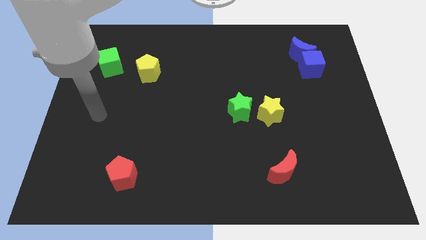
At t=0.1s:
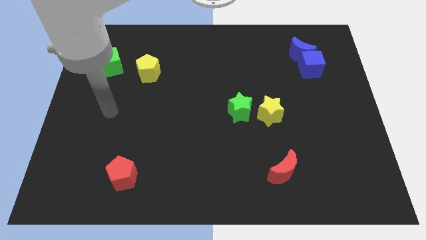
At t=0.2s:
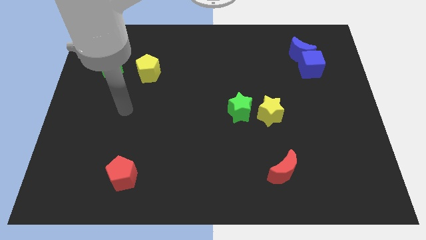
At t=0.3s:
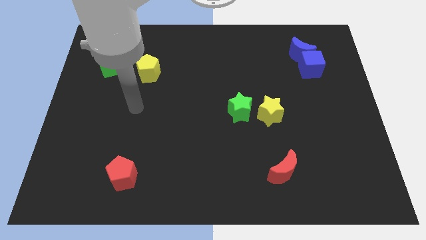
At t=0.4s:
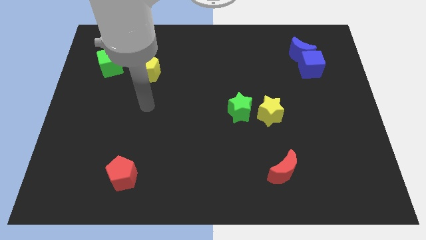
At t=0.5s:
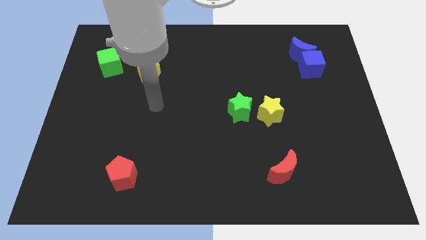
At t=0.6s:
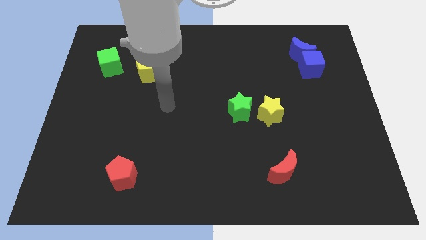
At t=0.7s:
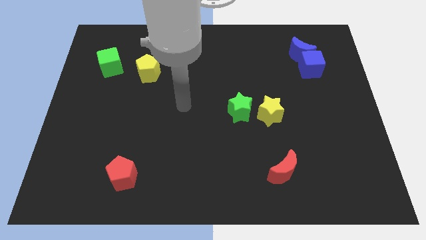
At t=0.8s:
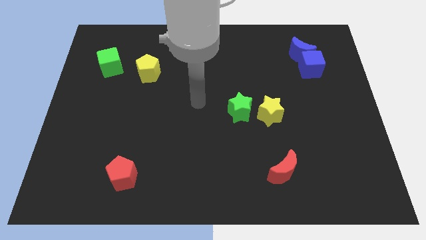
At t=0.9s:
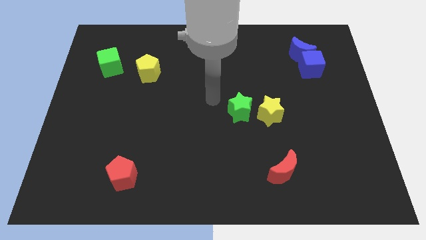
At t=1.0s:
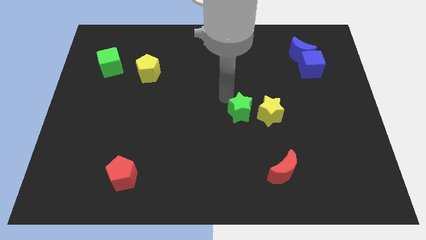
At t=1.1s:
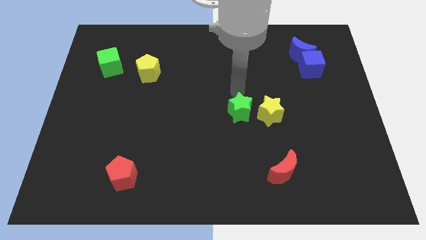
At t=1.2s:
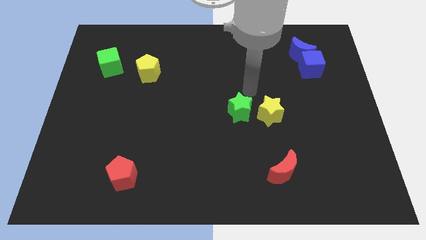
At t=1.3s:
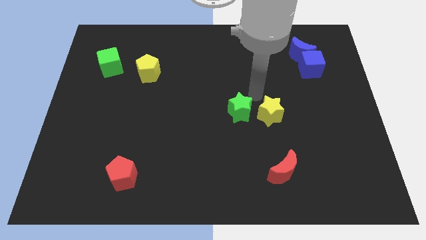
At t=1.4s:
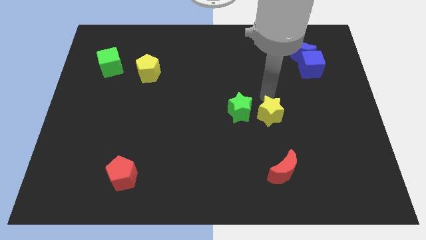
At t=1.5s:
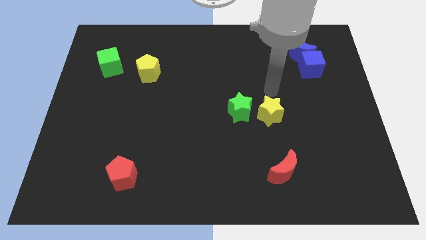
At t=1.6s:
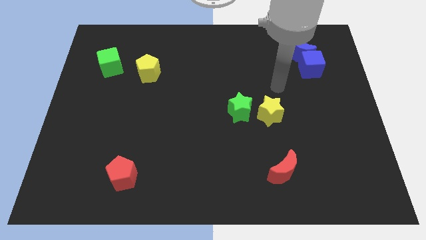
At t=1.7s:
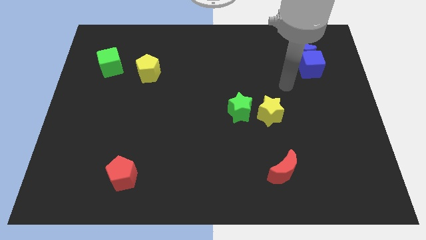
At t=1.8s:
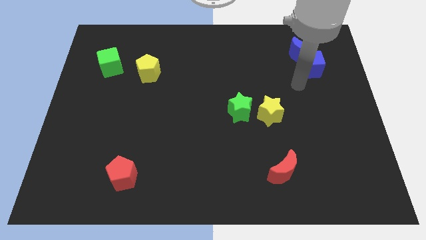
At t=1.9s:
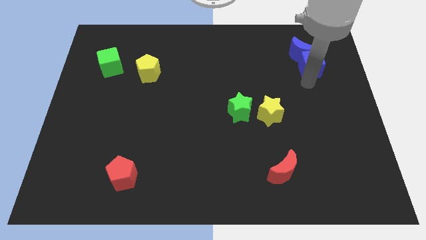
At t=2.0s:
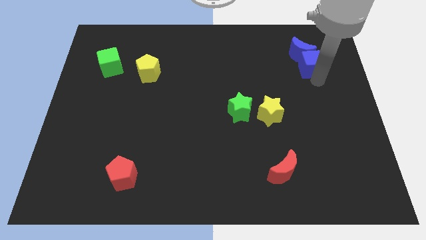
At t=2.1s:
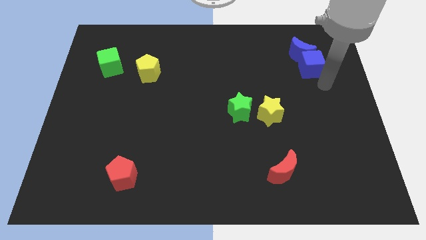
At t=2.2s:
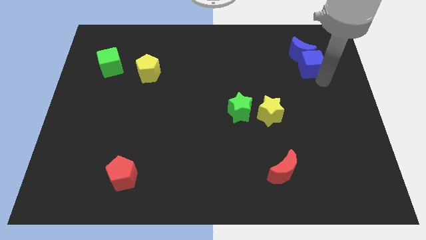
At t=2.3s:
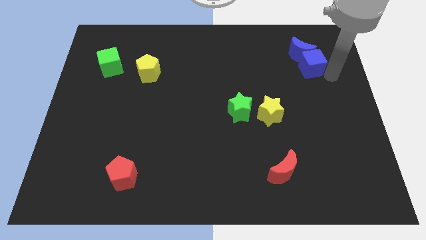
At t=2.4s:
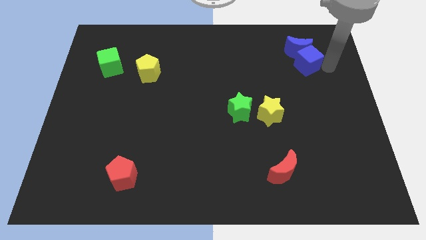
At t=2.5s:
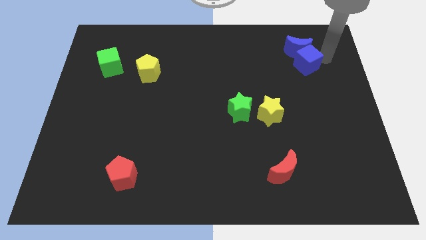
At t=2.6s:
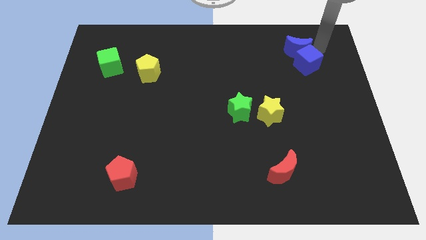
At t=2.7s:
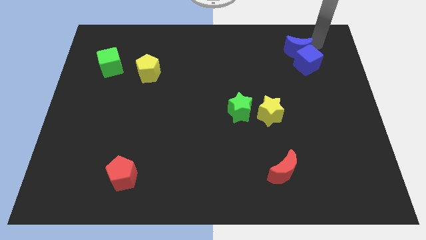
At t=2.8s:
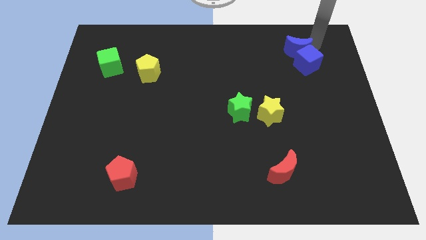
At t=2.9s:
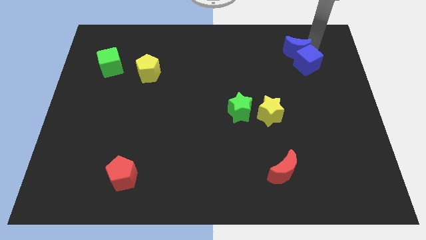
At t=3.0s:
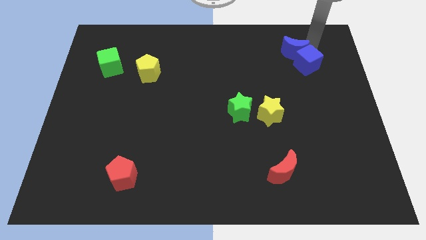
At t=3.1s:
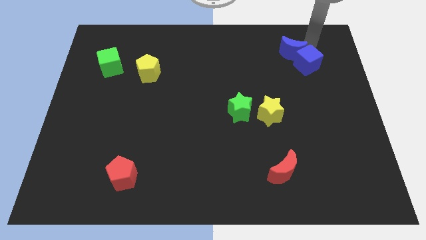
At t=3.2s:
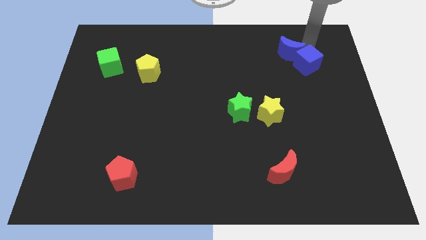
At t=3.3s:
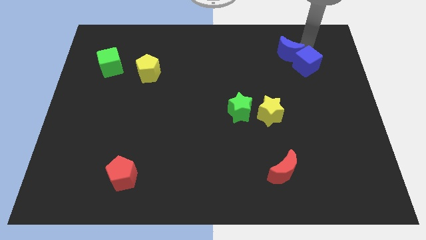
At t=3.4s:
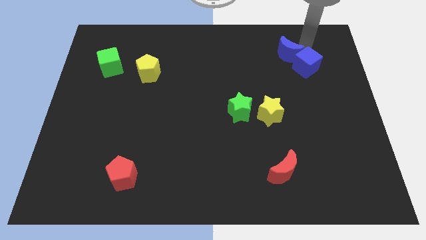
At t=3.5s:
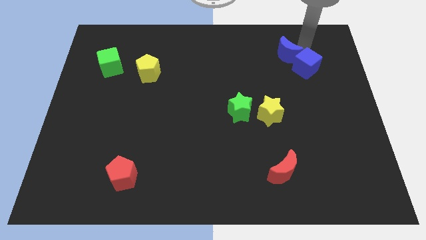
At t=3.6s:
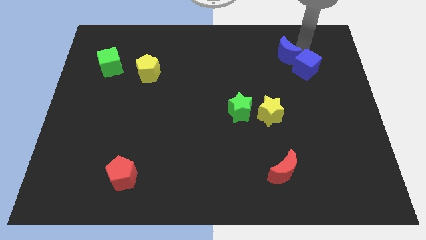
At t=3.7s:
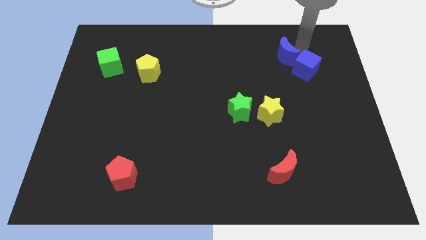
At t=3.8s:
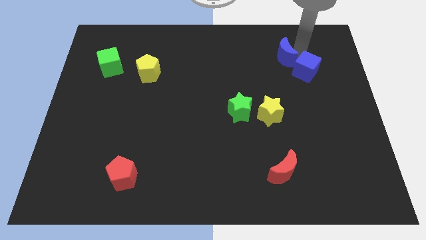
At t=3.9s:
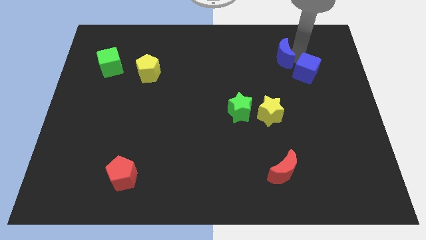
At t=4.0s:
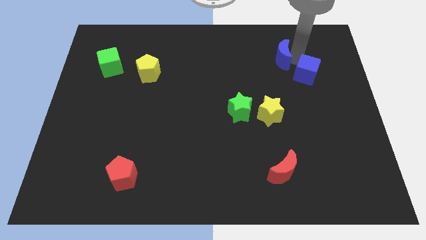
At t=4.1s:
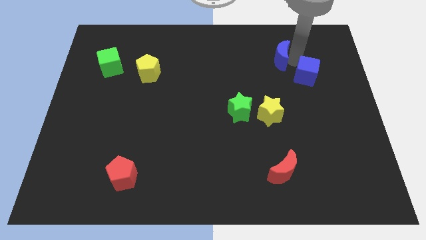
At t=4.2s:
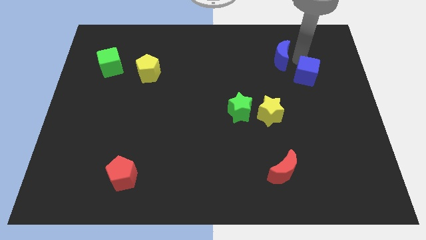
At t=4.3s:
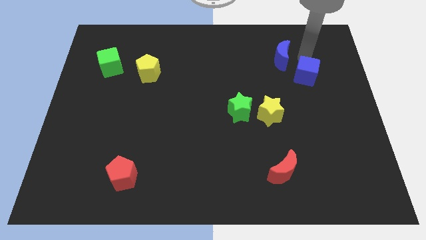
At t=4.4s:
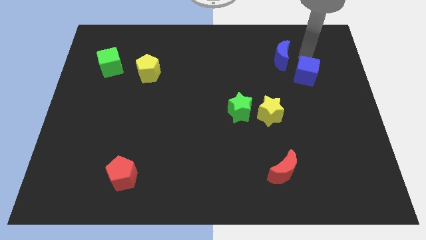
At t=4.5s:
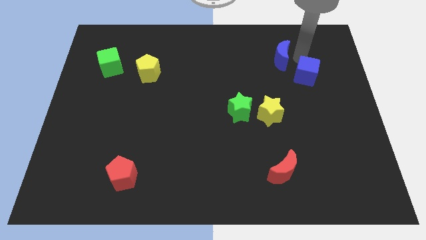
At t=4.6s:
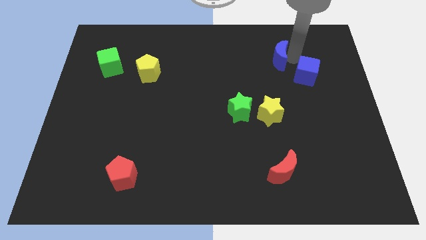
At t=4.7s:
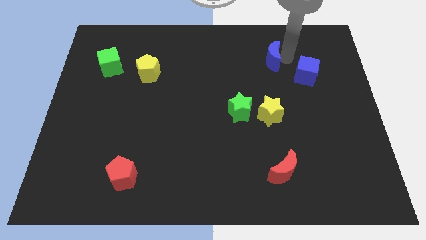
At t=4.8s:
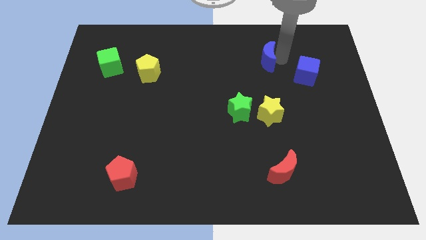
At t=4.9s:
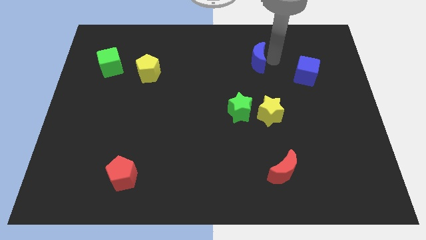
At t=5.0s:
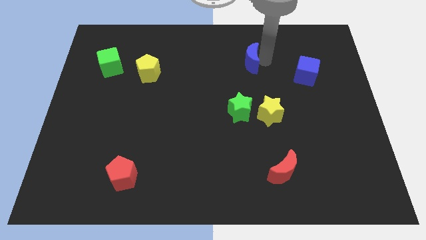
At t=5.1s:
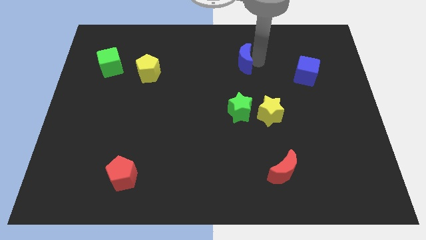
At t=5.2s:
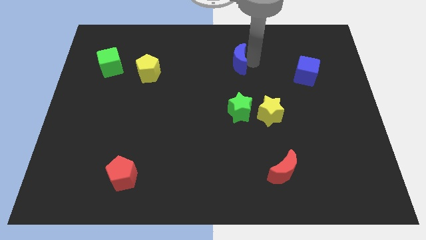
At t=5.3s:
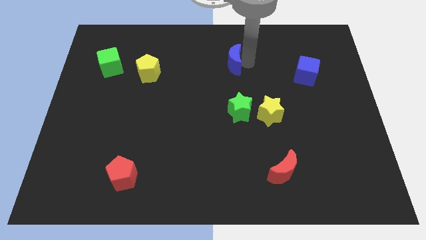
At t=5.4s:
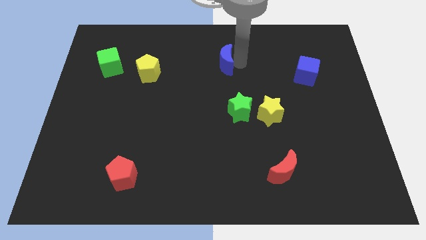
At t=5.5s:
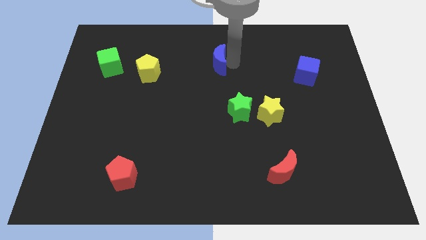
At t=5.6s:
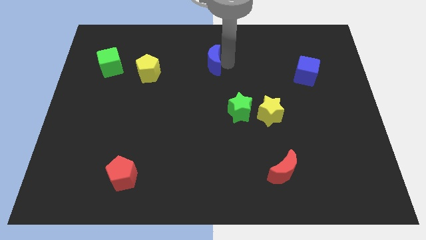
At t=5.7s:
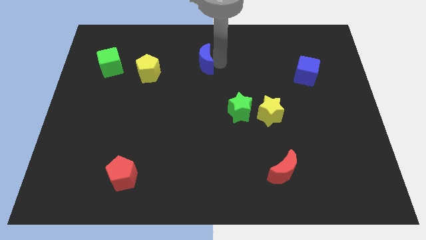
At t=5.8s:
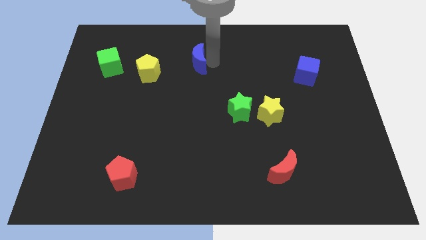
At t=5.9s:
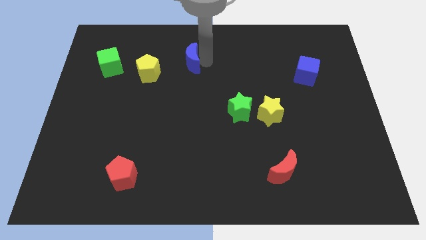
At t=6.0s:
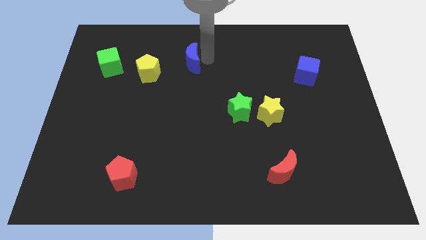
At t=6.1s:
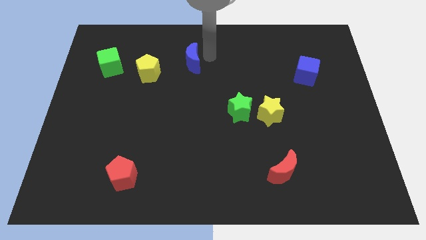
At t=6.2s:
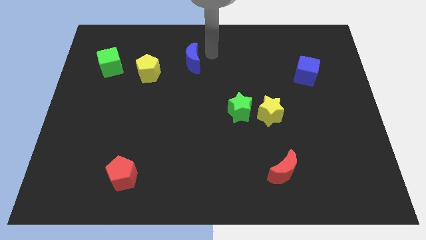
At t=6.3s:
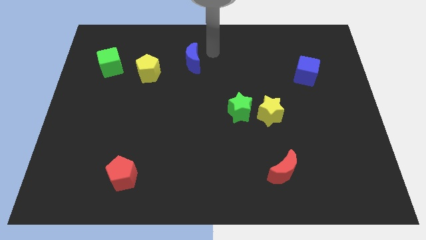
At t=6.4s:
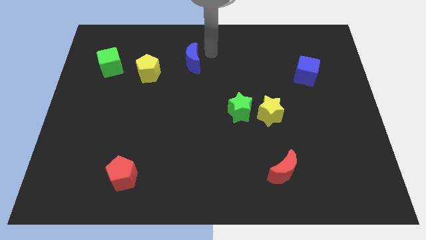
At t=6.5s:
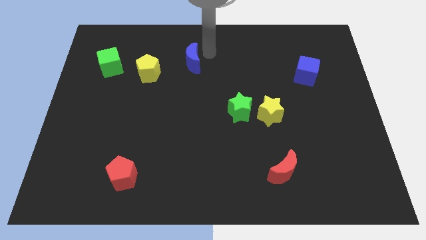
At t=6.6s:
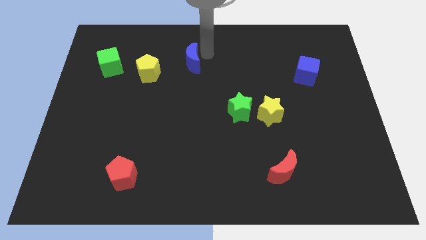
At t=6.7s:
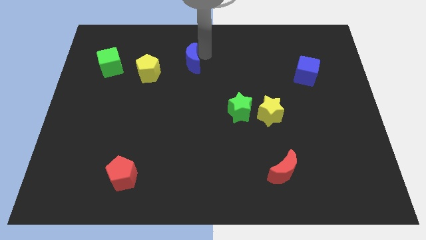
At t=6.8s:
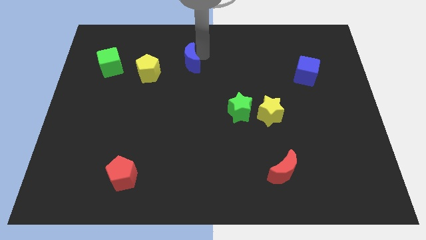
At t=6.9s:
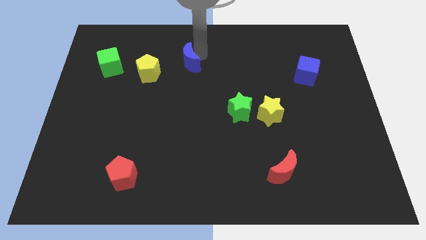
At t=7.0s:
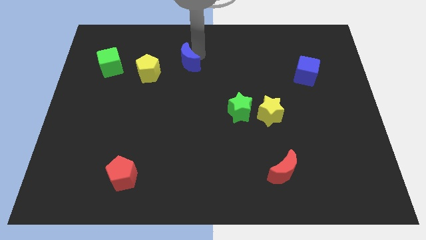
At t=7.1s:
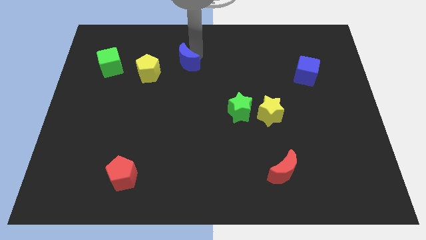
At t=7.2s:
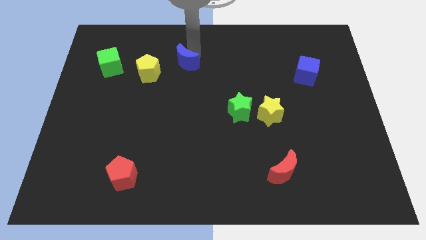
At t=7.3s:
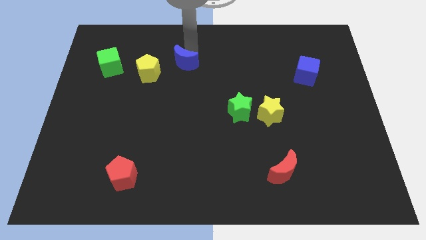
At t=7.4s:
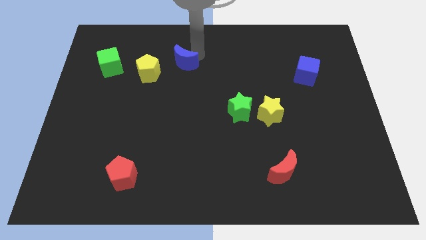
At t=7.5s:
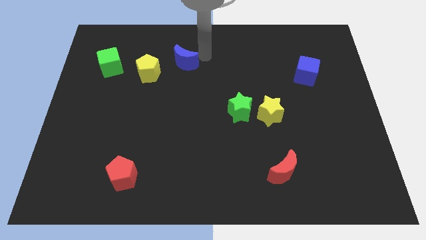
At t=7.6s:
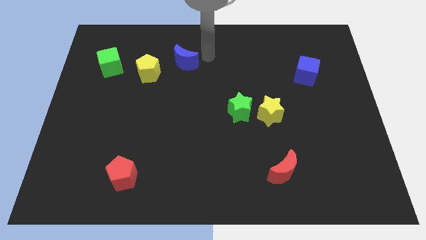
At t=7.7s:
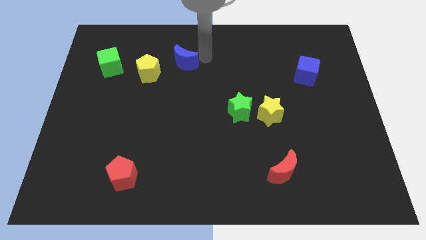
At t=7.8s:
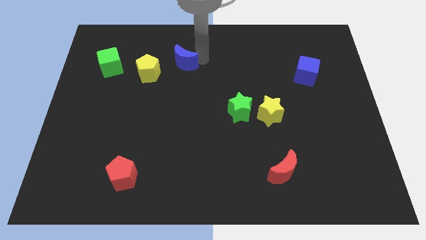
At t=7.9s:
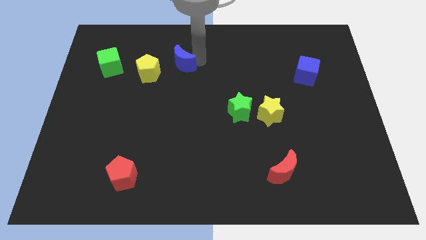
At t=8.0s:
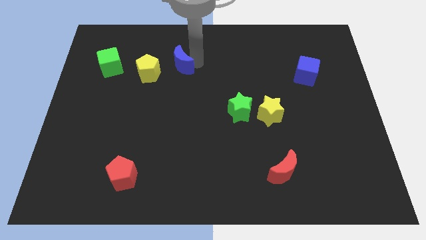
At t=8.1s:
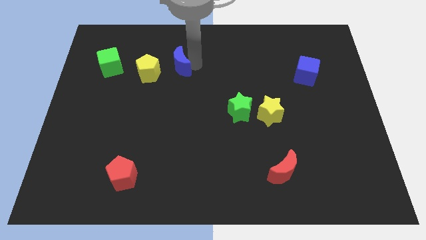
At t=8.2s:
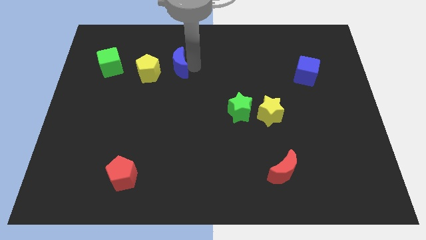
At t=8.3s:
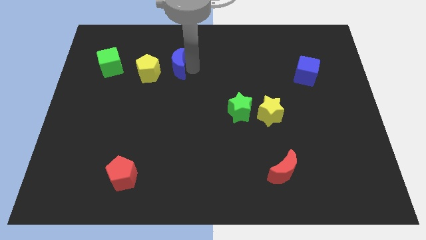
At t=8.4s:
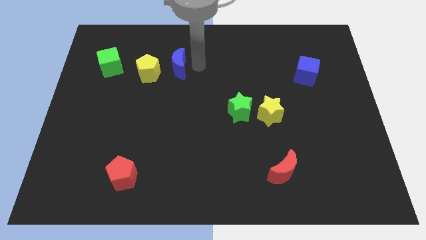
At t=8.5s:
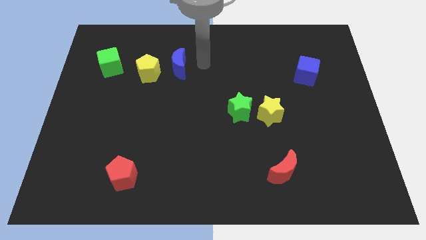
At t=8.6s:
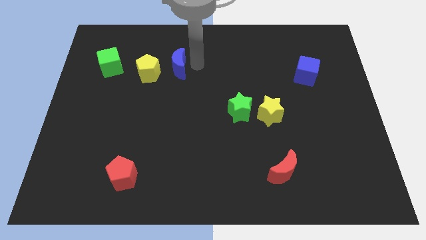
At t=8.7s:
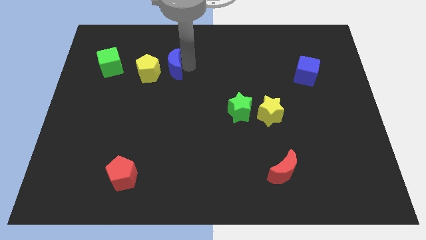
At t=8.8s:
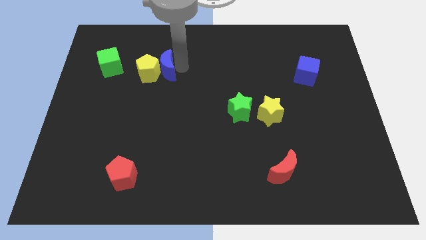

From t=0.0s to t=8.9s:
slide the blue moon towards the yellow pentagon
